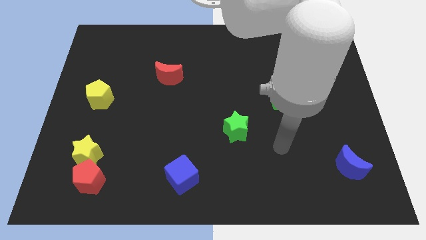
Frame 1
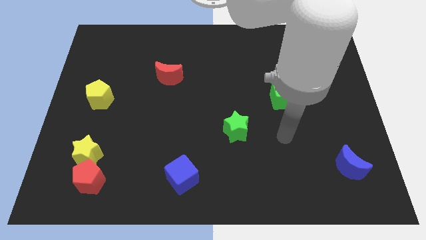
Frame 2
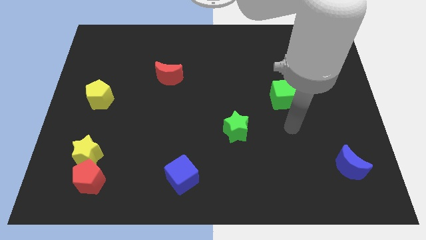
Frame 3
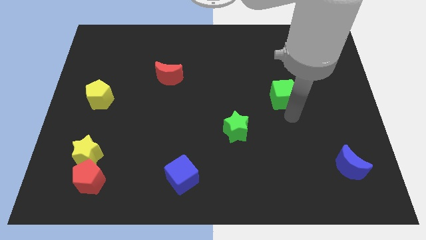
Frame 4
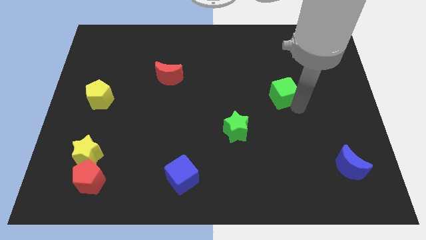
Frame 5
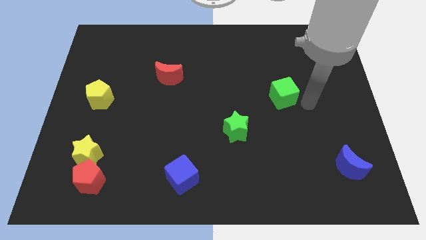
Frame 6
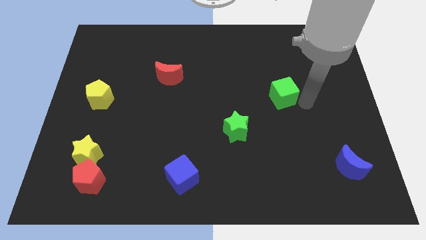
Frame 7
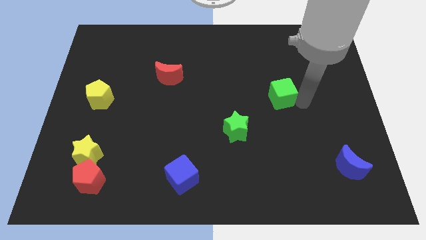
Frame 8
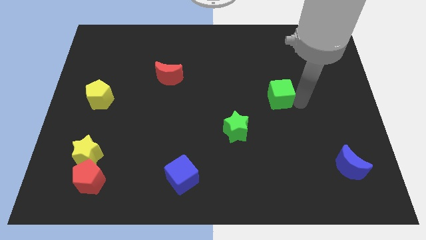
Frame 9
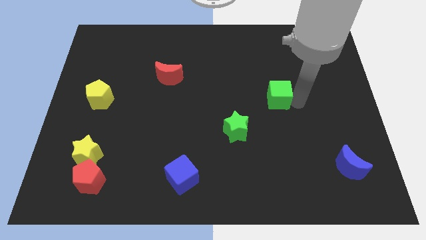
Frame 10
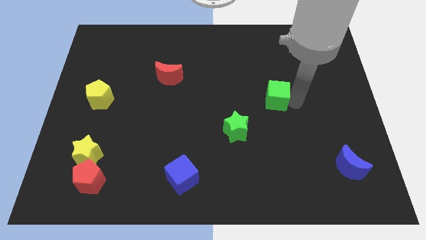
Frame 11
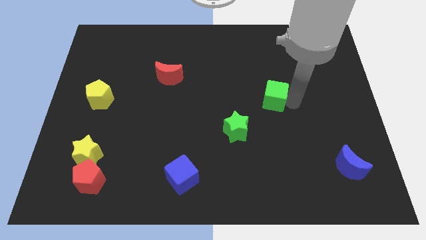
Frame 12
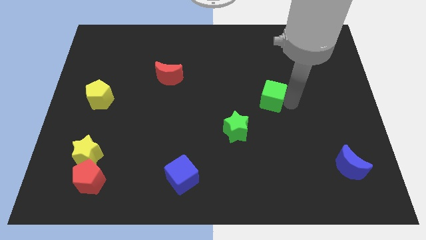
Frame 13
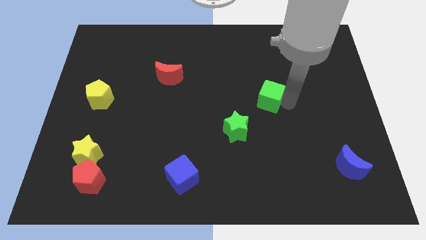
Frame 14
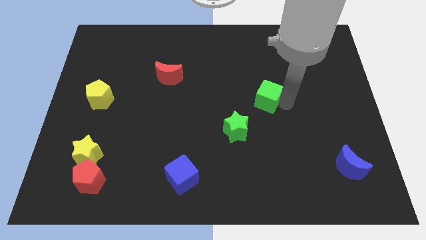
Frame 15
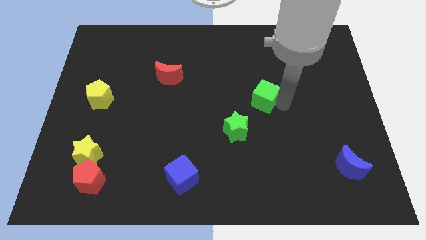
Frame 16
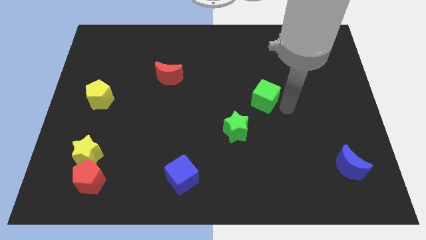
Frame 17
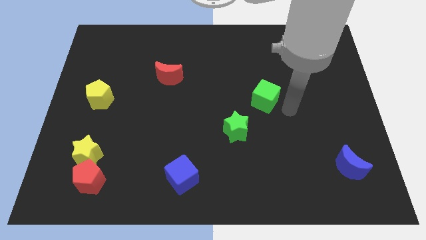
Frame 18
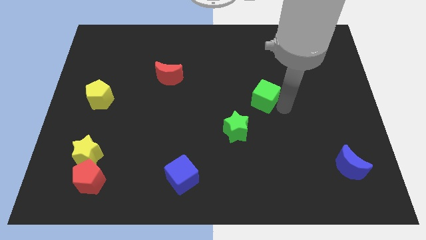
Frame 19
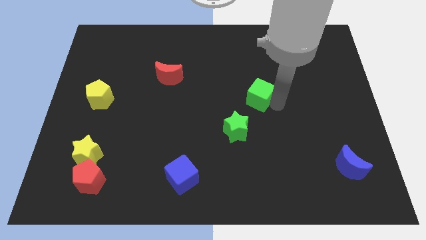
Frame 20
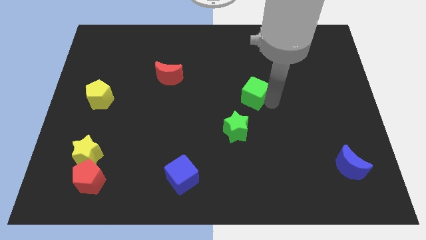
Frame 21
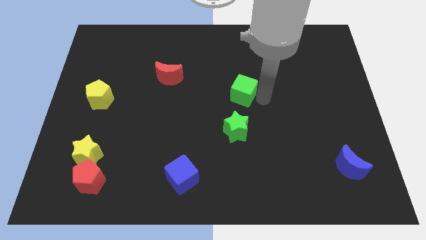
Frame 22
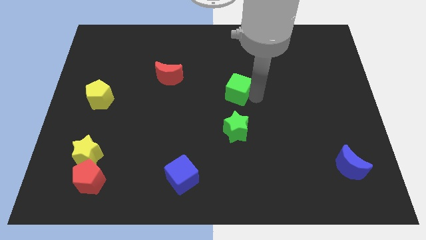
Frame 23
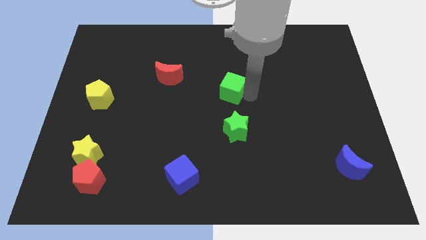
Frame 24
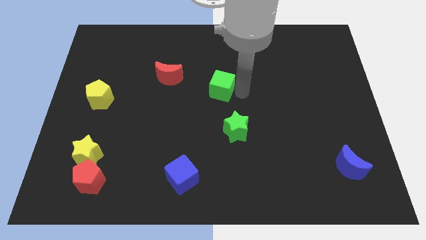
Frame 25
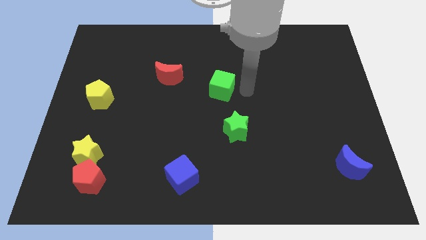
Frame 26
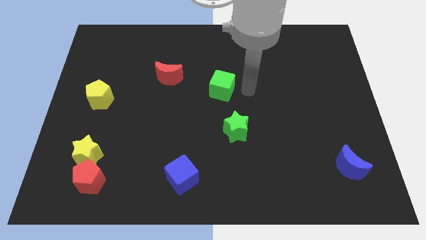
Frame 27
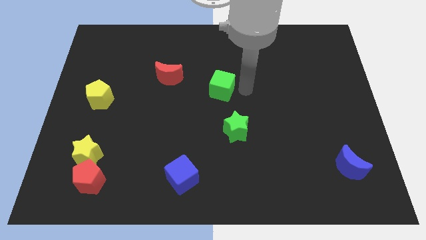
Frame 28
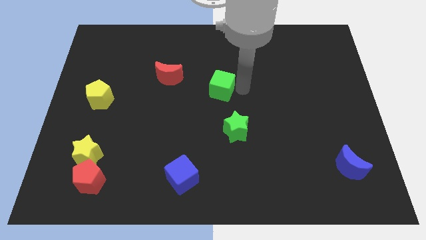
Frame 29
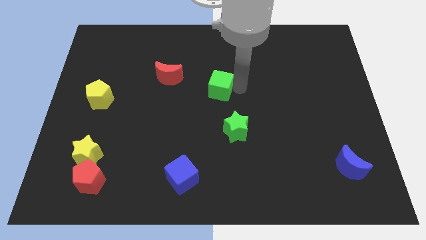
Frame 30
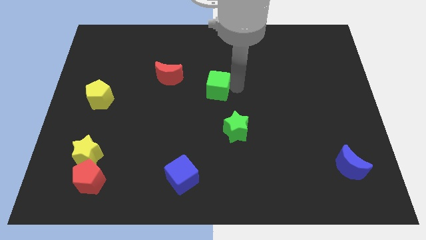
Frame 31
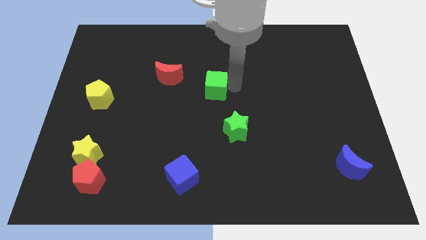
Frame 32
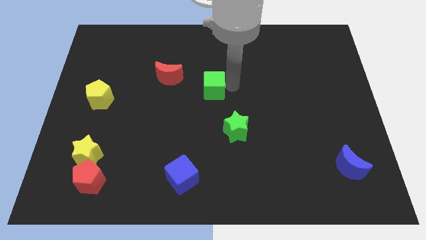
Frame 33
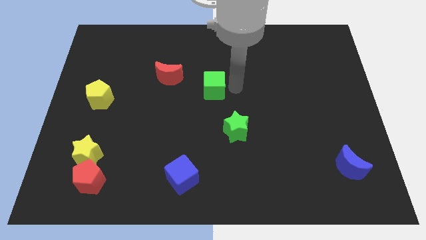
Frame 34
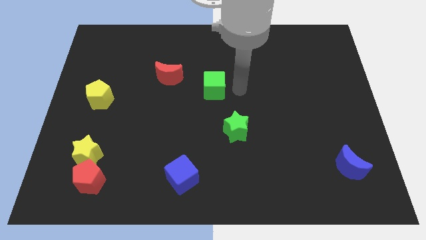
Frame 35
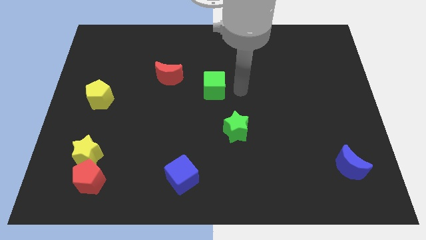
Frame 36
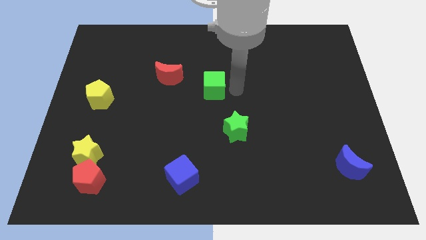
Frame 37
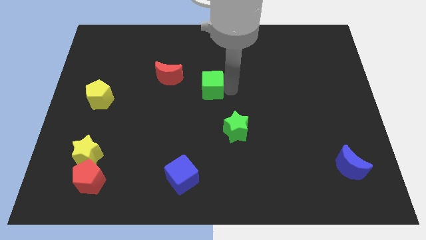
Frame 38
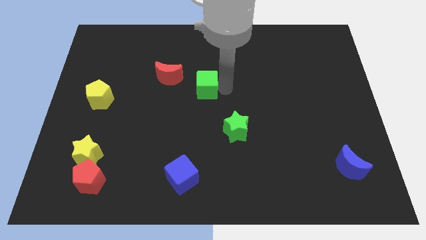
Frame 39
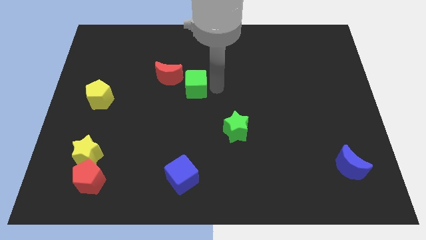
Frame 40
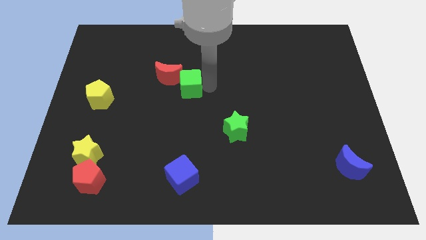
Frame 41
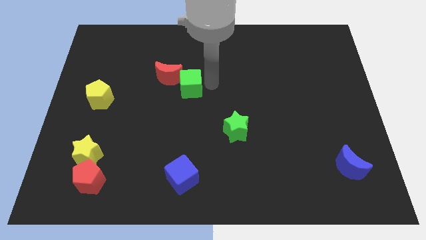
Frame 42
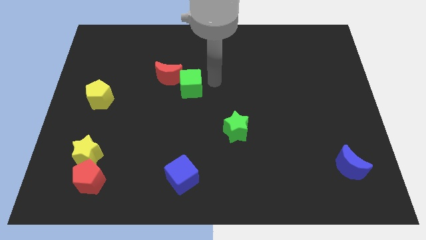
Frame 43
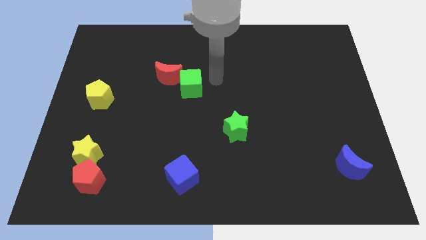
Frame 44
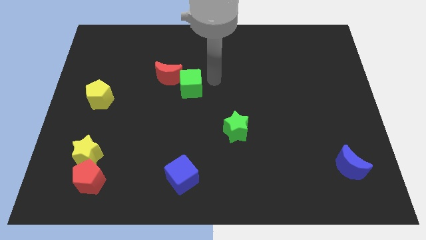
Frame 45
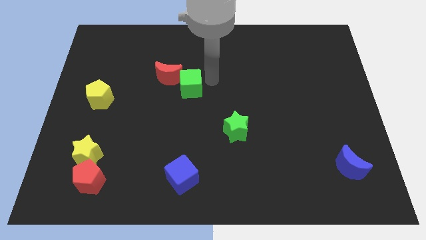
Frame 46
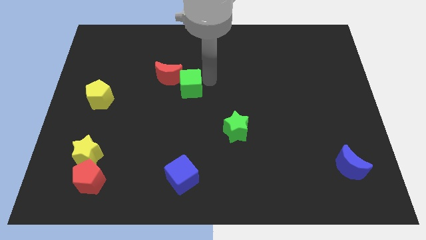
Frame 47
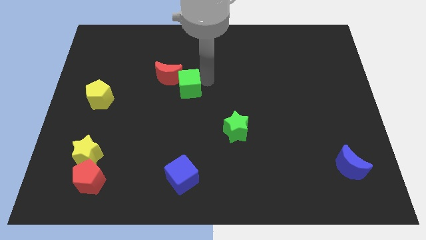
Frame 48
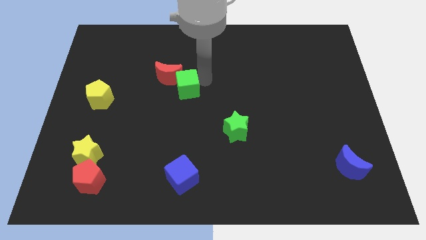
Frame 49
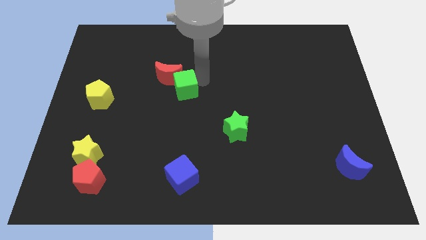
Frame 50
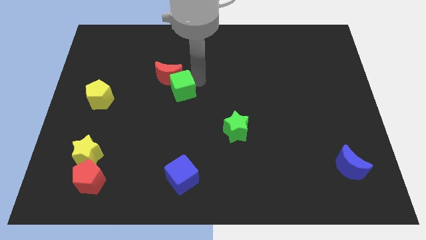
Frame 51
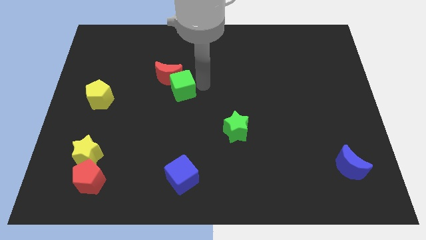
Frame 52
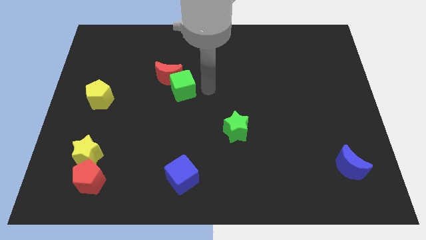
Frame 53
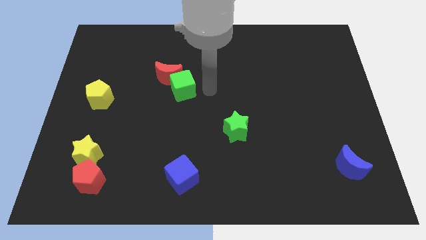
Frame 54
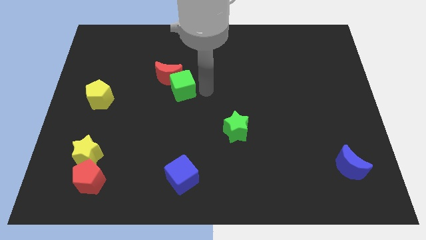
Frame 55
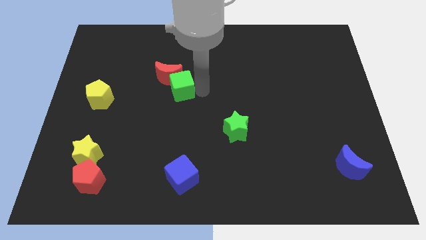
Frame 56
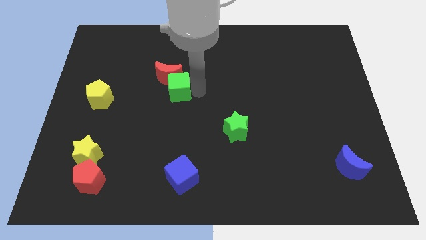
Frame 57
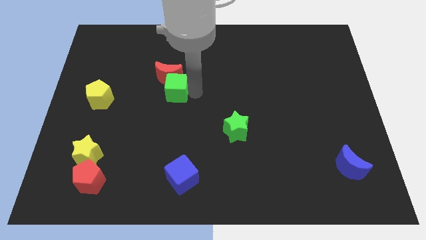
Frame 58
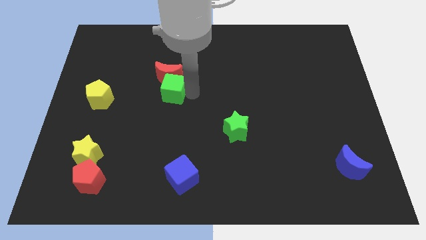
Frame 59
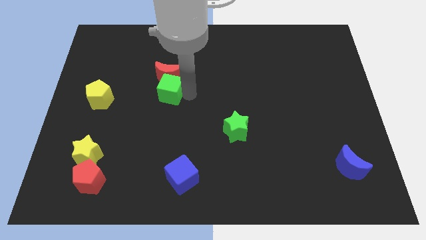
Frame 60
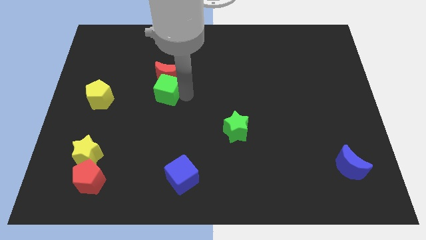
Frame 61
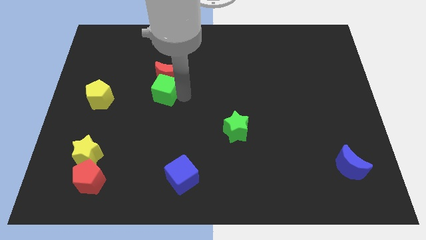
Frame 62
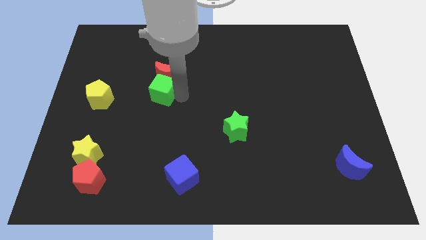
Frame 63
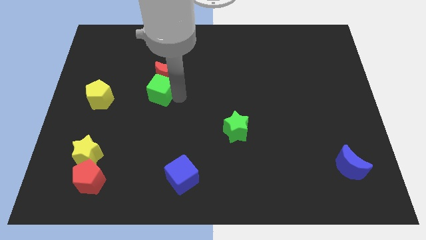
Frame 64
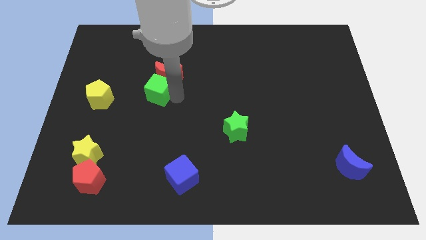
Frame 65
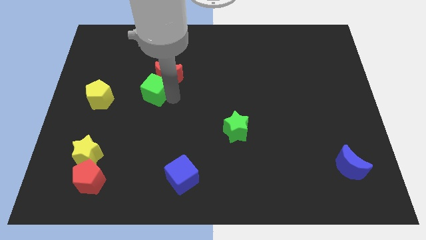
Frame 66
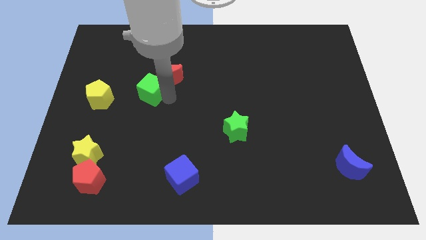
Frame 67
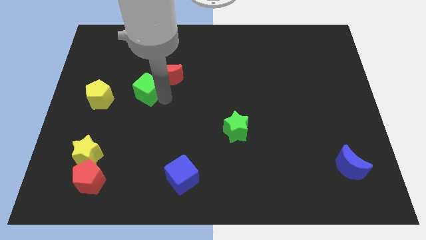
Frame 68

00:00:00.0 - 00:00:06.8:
push the green cube to the left side of the red moon

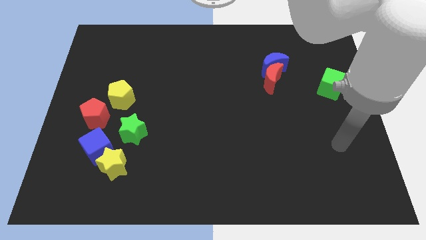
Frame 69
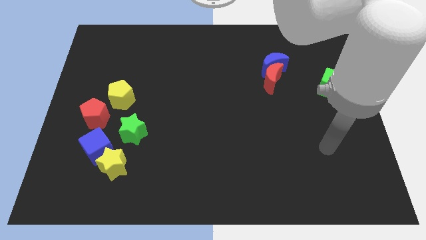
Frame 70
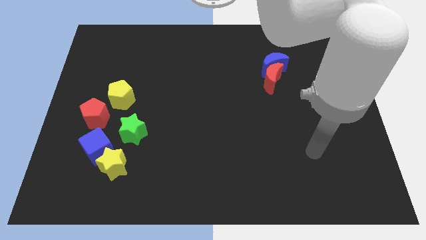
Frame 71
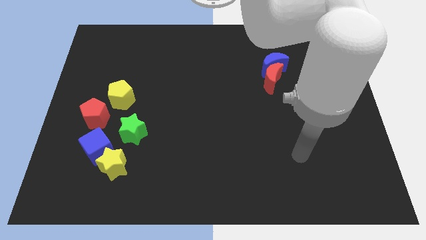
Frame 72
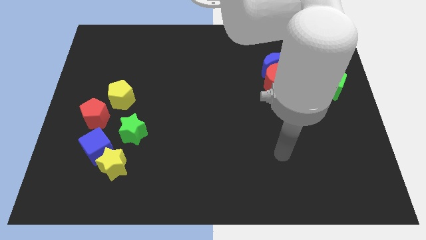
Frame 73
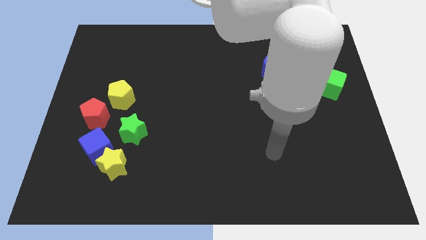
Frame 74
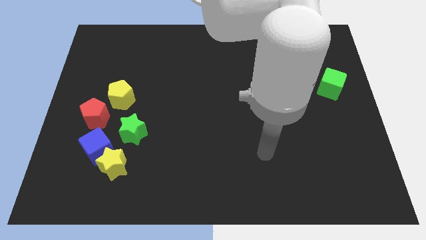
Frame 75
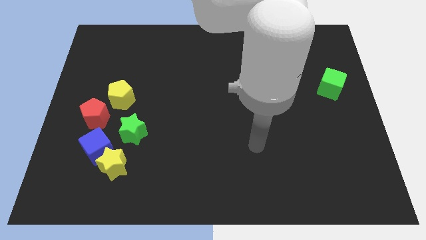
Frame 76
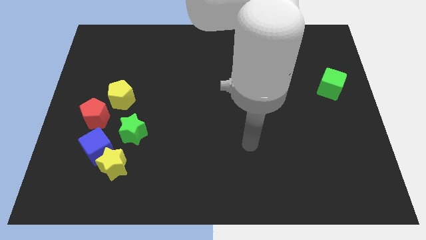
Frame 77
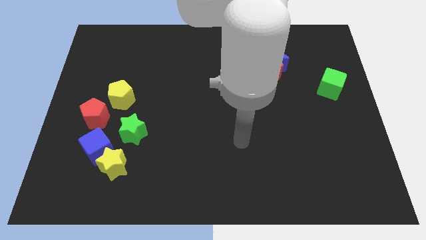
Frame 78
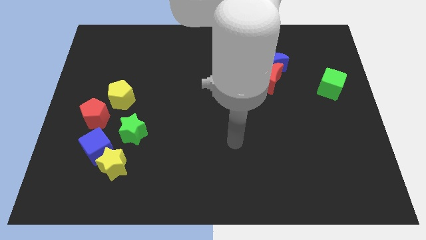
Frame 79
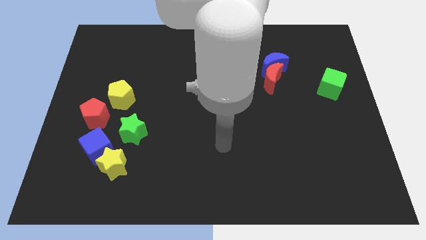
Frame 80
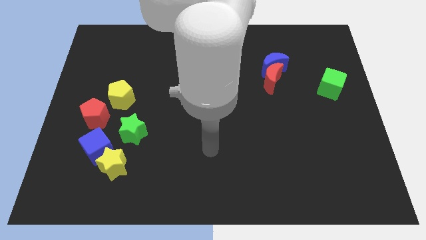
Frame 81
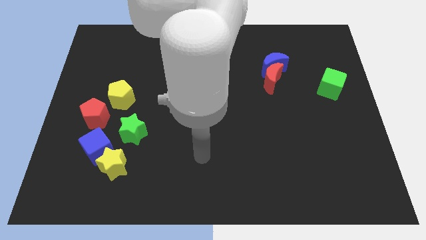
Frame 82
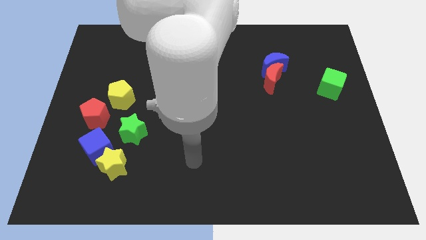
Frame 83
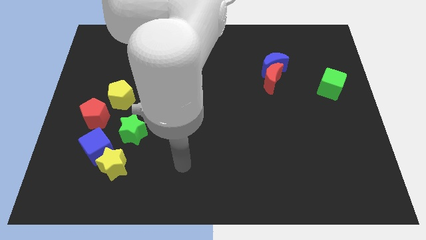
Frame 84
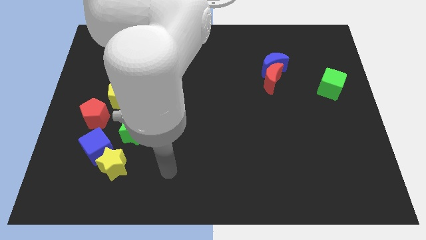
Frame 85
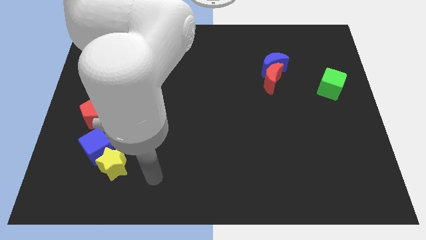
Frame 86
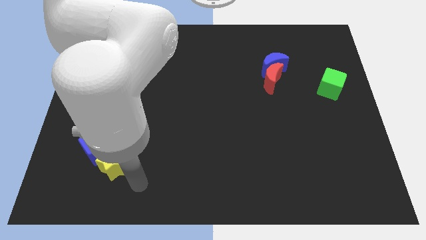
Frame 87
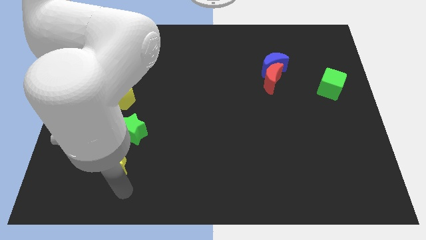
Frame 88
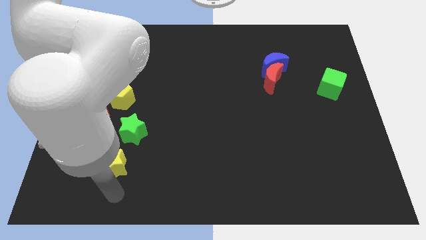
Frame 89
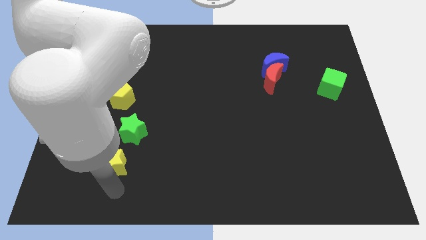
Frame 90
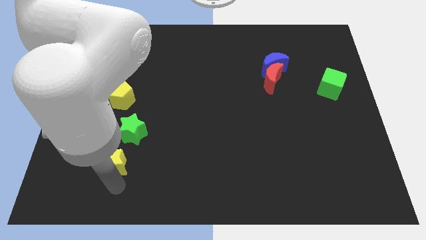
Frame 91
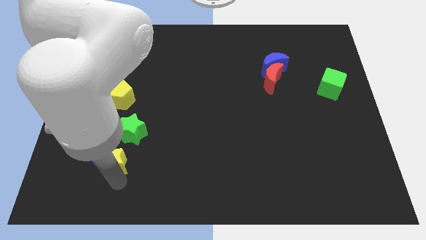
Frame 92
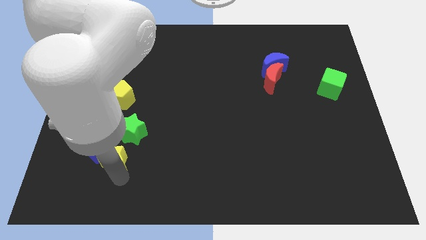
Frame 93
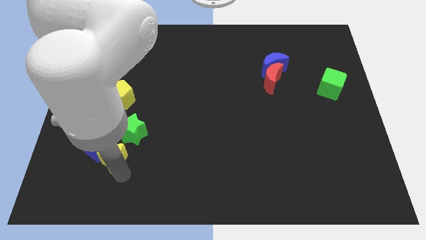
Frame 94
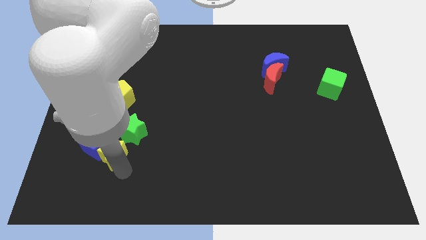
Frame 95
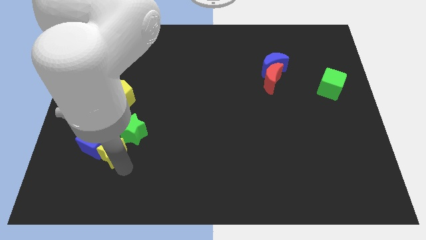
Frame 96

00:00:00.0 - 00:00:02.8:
push the yellow star to the bottom of the yellow pentagon
